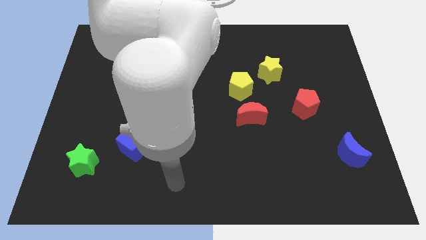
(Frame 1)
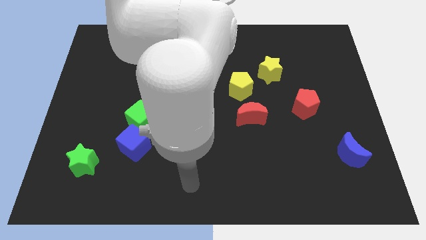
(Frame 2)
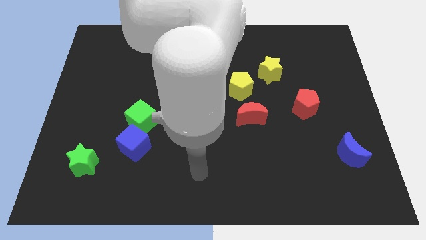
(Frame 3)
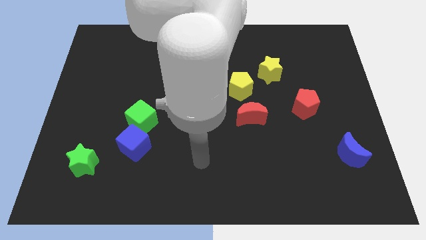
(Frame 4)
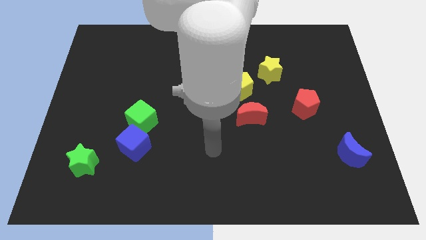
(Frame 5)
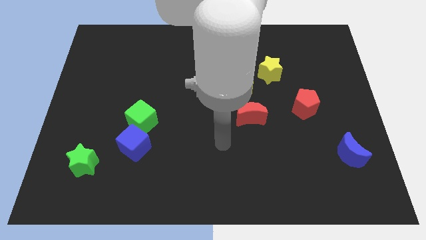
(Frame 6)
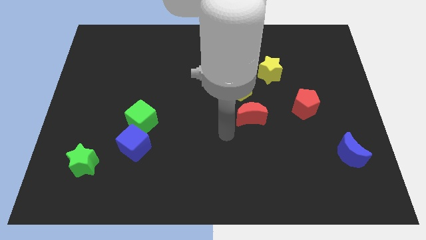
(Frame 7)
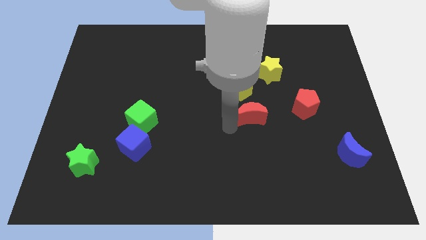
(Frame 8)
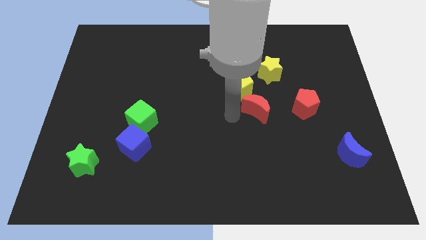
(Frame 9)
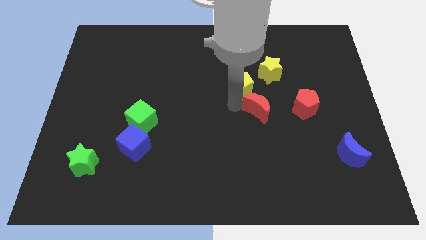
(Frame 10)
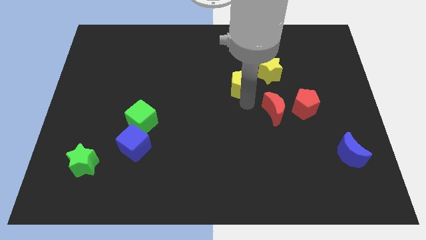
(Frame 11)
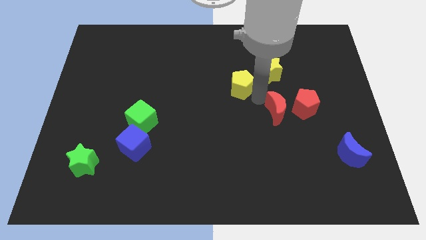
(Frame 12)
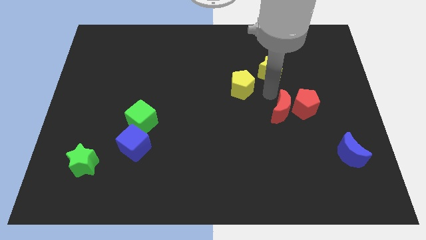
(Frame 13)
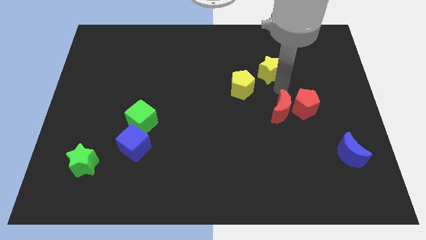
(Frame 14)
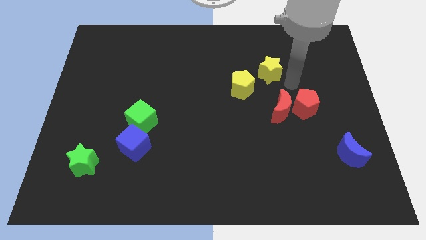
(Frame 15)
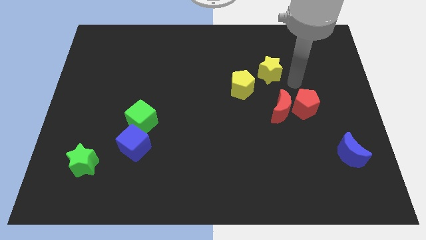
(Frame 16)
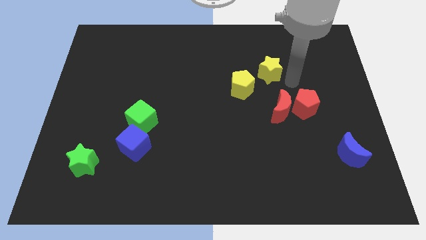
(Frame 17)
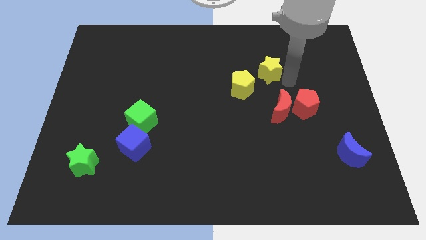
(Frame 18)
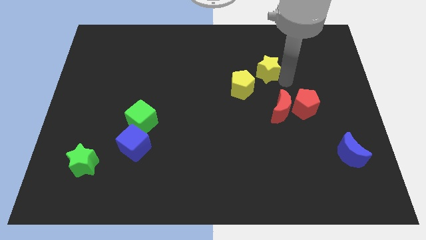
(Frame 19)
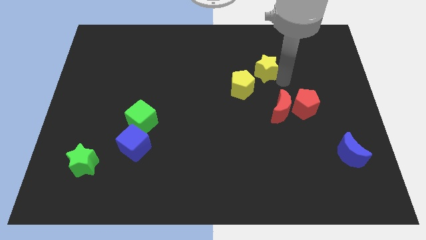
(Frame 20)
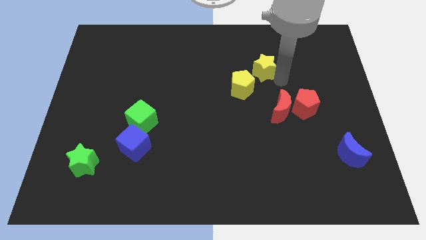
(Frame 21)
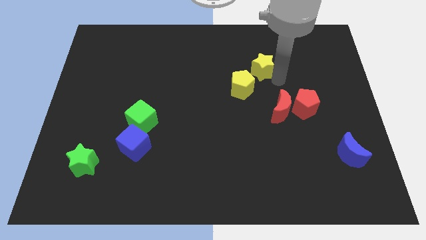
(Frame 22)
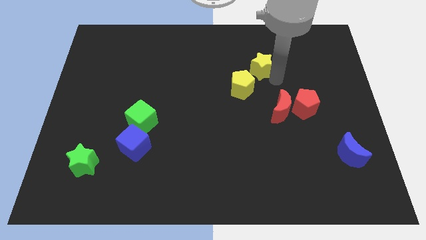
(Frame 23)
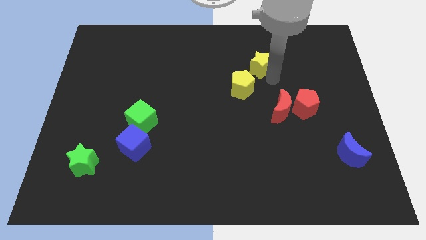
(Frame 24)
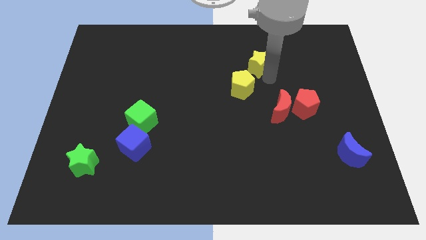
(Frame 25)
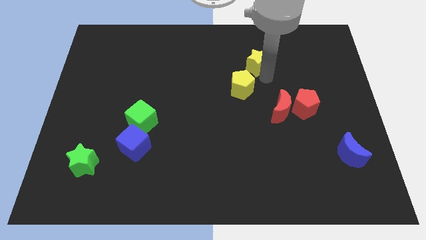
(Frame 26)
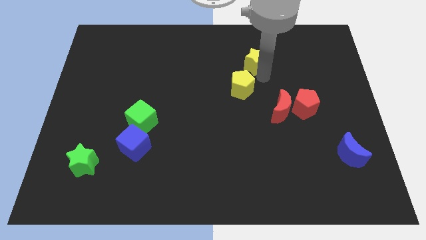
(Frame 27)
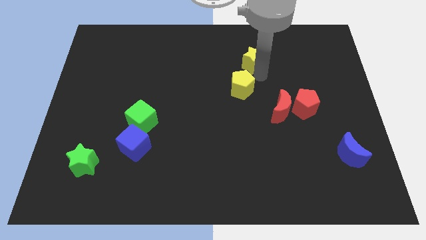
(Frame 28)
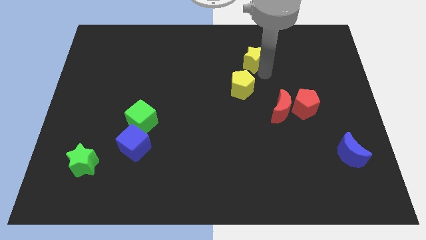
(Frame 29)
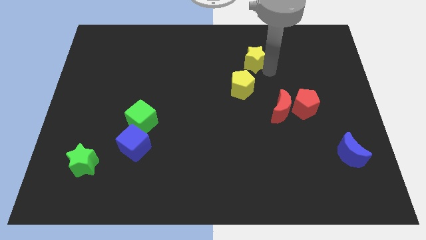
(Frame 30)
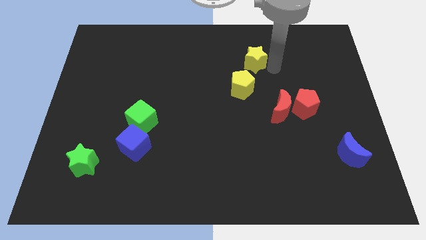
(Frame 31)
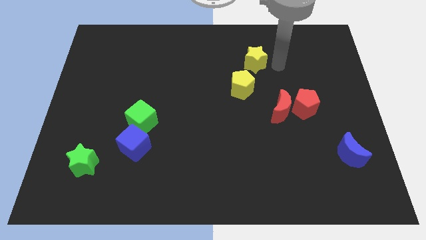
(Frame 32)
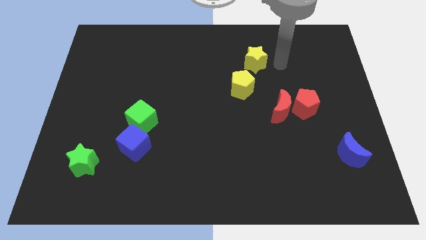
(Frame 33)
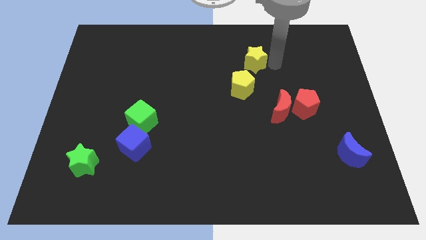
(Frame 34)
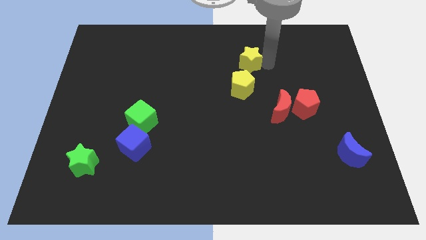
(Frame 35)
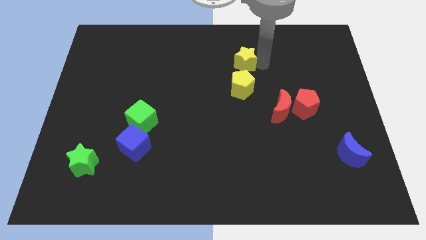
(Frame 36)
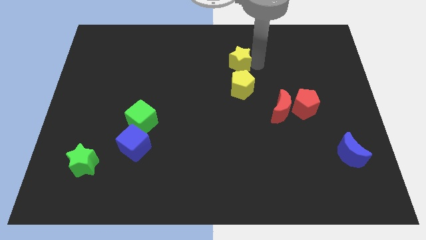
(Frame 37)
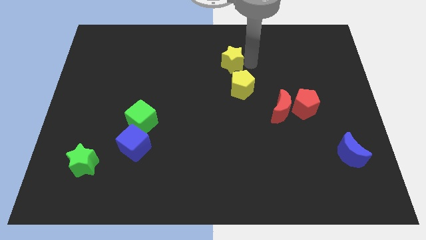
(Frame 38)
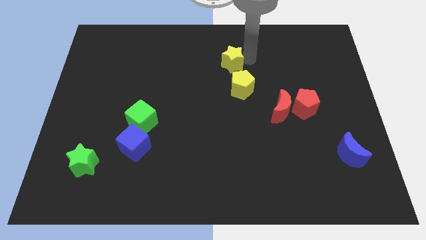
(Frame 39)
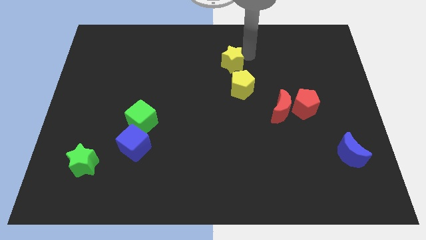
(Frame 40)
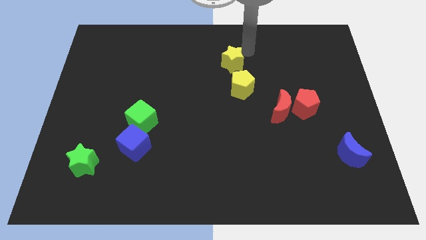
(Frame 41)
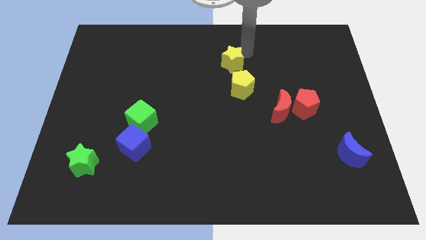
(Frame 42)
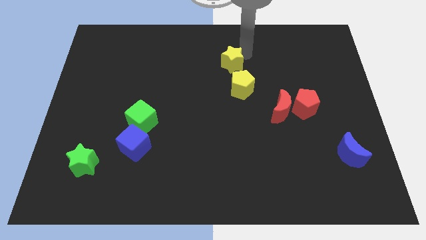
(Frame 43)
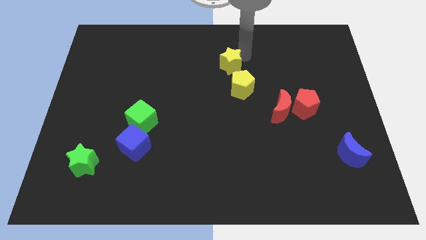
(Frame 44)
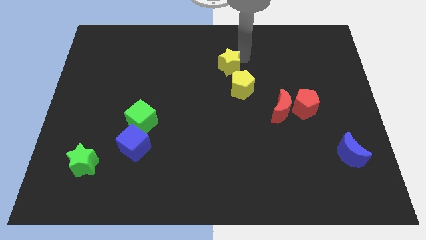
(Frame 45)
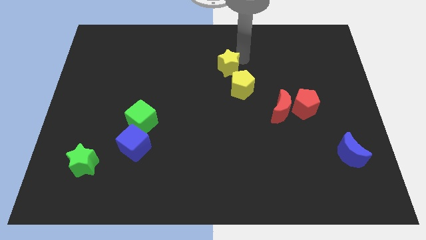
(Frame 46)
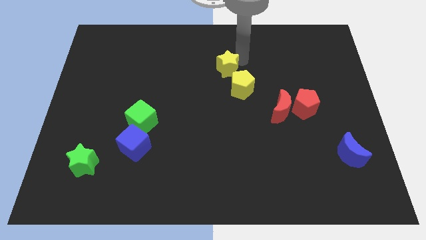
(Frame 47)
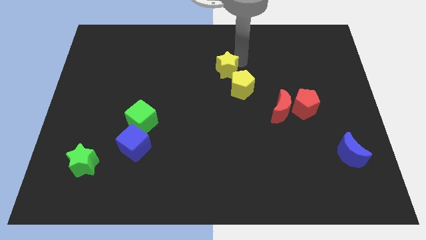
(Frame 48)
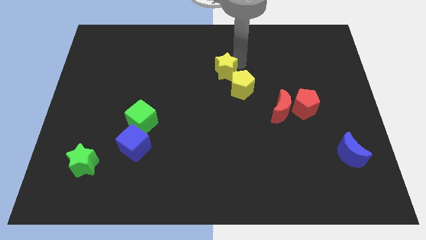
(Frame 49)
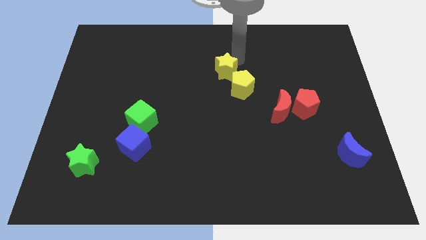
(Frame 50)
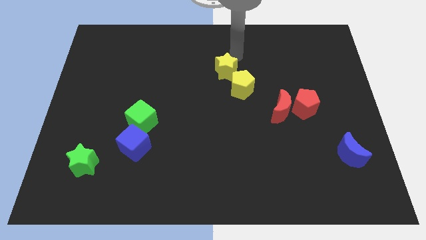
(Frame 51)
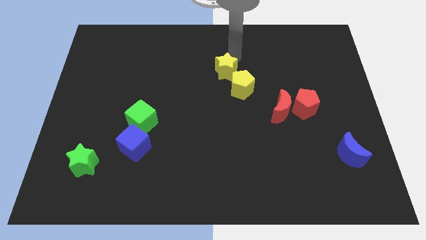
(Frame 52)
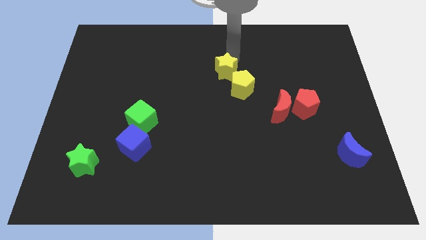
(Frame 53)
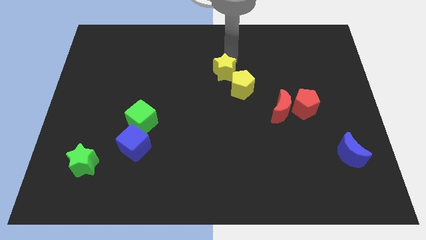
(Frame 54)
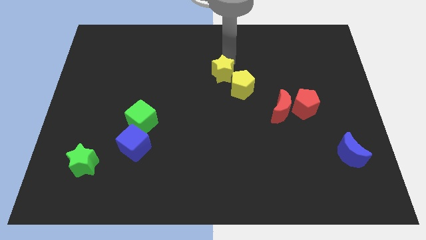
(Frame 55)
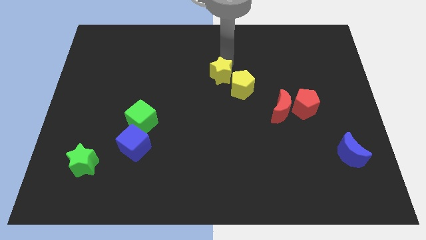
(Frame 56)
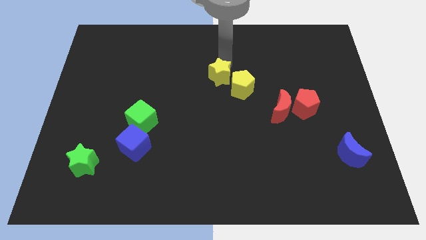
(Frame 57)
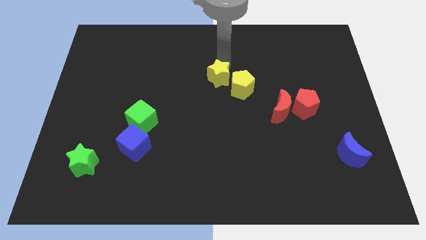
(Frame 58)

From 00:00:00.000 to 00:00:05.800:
slightly slide the yellow star down and left

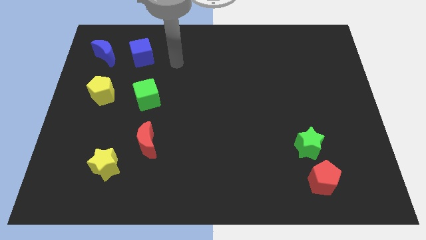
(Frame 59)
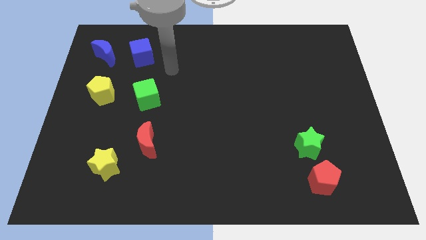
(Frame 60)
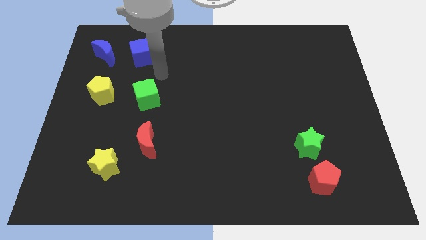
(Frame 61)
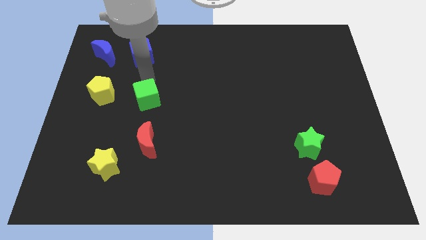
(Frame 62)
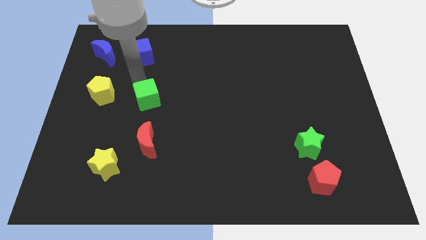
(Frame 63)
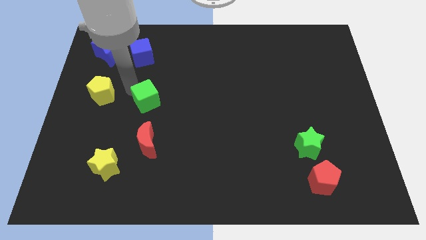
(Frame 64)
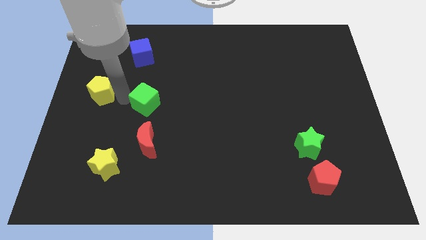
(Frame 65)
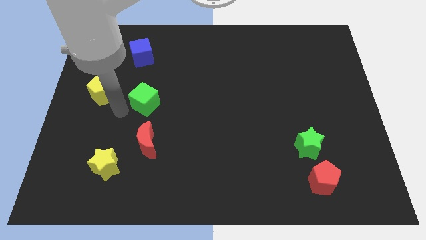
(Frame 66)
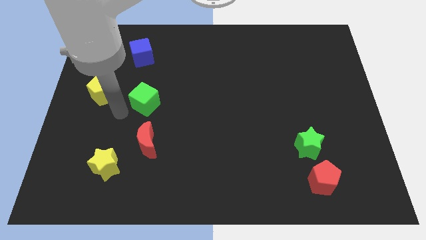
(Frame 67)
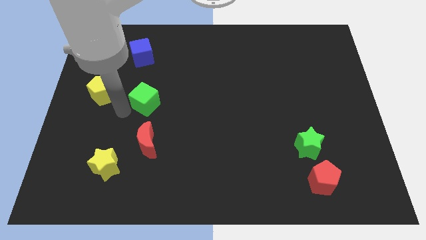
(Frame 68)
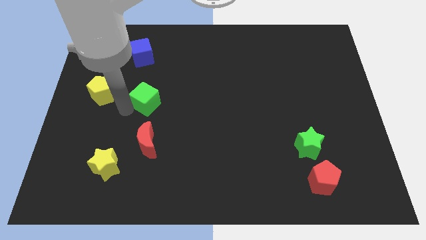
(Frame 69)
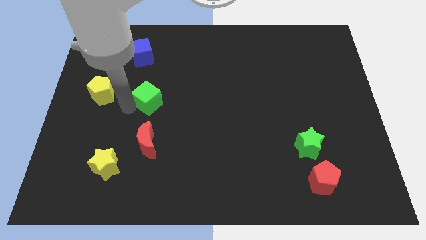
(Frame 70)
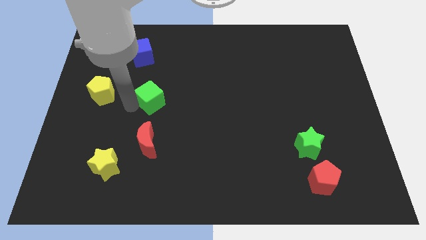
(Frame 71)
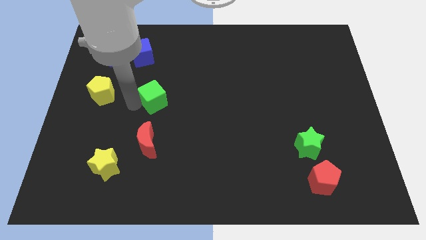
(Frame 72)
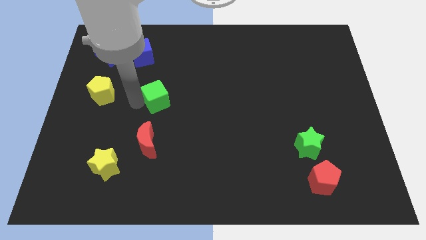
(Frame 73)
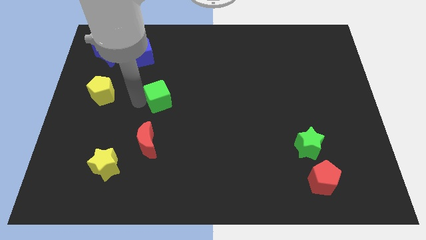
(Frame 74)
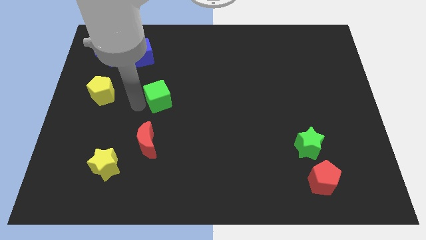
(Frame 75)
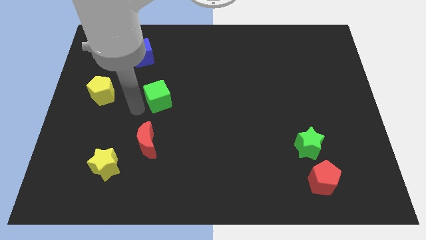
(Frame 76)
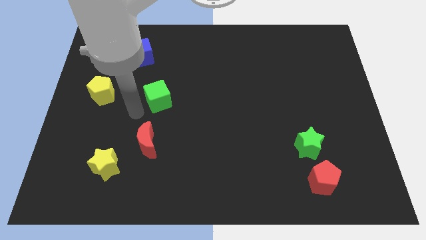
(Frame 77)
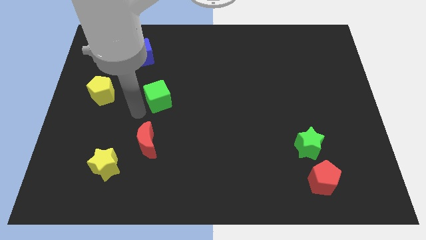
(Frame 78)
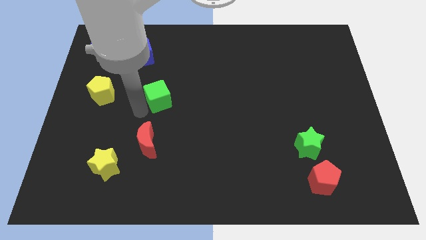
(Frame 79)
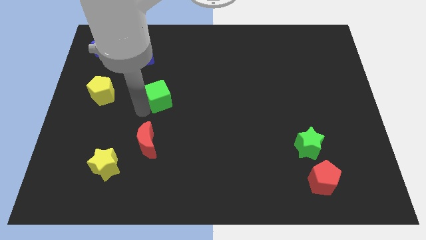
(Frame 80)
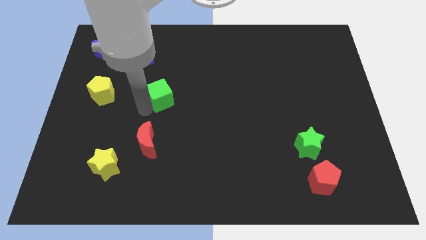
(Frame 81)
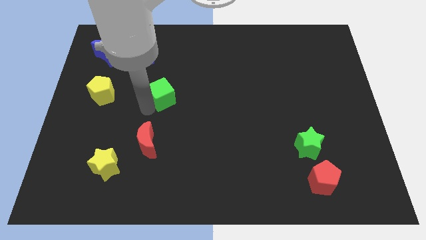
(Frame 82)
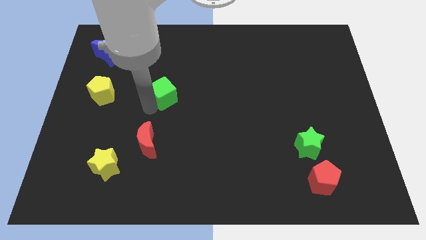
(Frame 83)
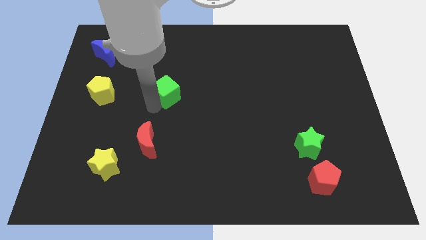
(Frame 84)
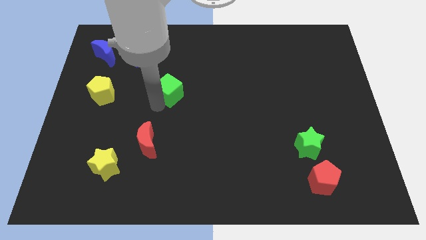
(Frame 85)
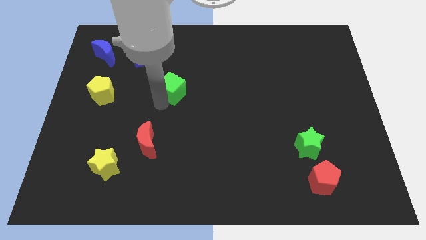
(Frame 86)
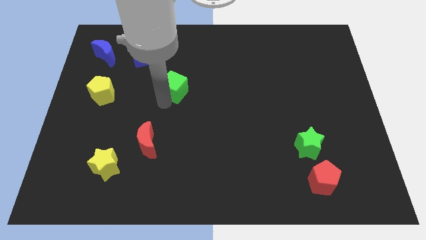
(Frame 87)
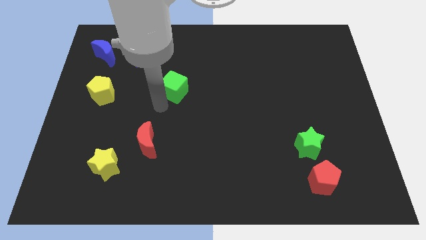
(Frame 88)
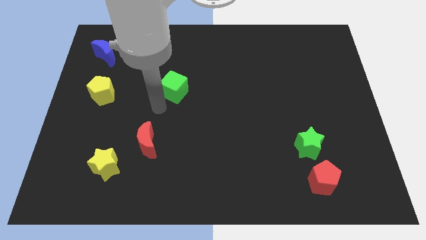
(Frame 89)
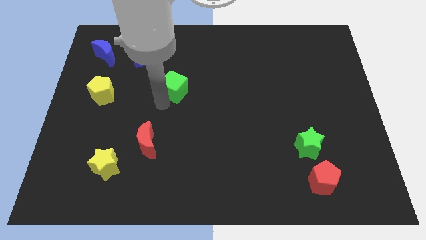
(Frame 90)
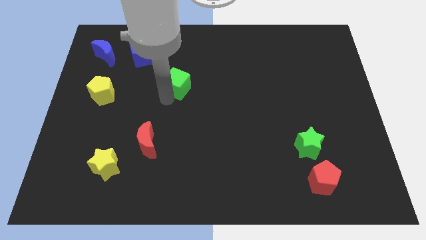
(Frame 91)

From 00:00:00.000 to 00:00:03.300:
slightly slide the green cube diagonally upwards and right
